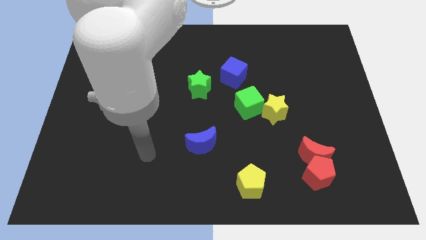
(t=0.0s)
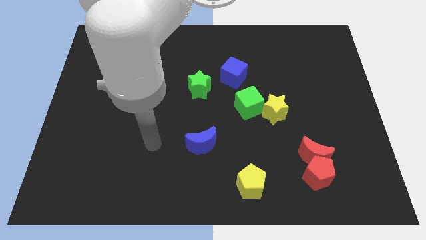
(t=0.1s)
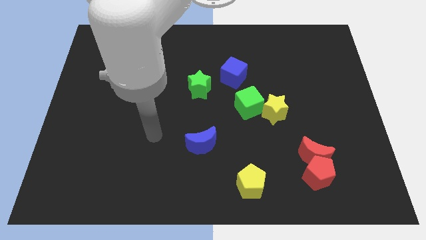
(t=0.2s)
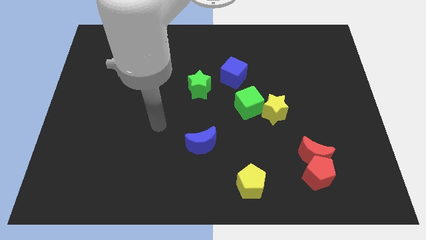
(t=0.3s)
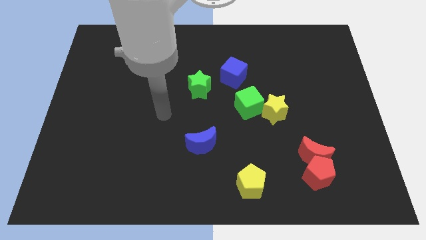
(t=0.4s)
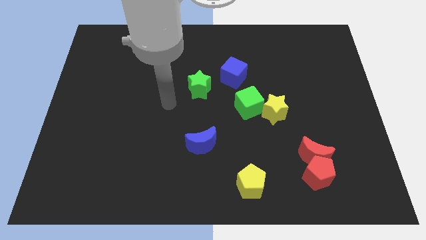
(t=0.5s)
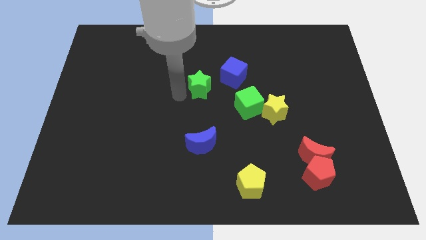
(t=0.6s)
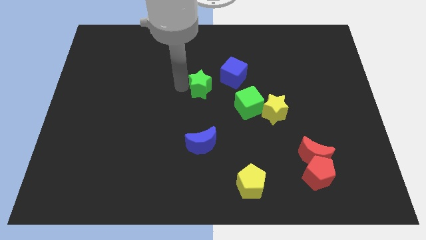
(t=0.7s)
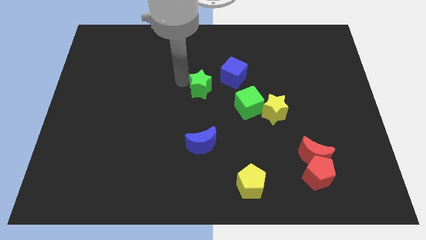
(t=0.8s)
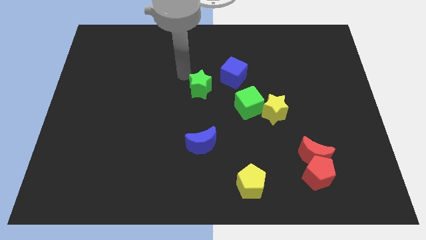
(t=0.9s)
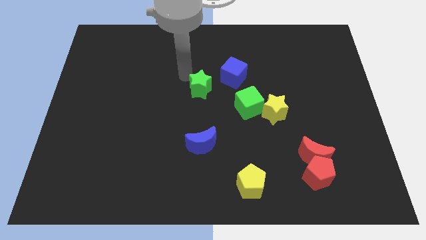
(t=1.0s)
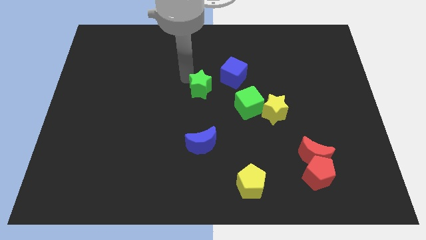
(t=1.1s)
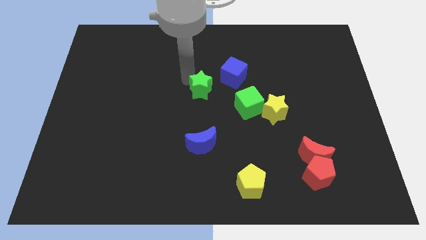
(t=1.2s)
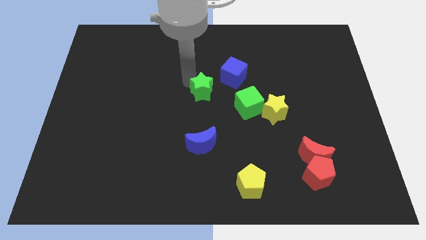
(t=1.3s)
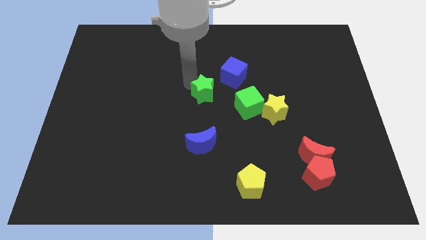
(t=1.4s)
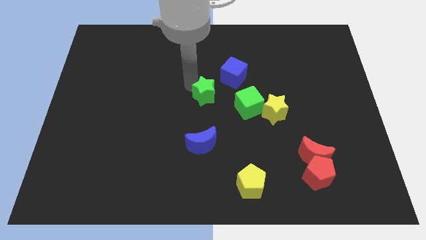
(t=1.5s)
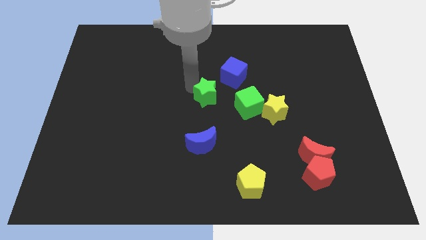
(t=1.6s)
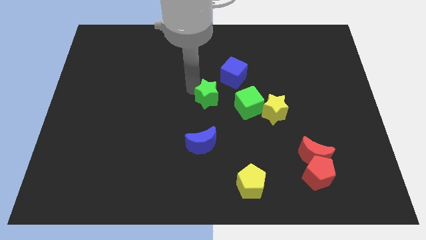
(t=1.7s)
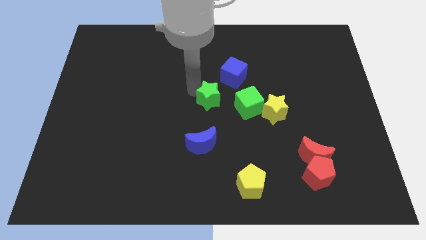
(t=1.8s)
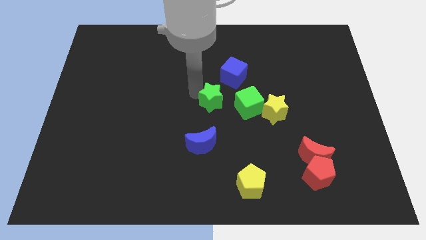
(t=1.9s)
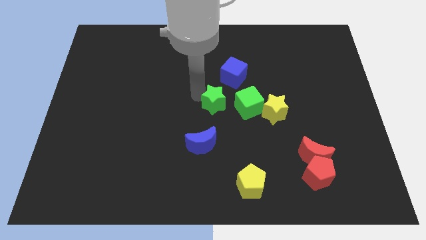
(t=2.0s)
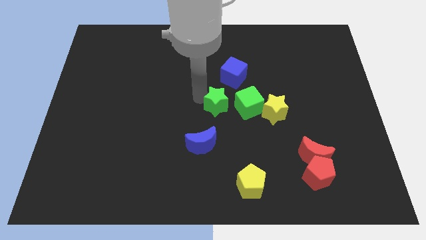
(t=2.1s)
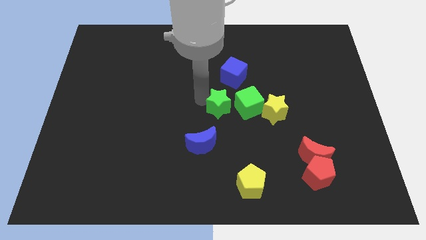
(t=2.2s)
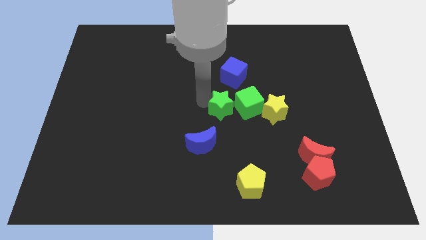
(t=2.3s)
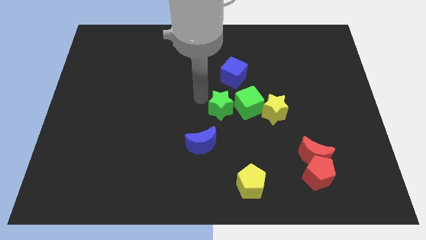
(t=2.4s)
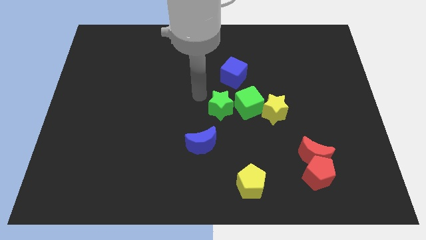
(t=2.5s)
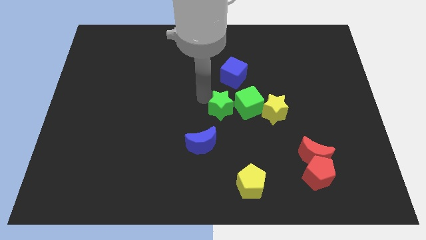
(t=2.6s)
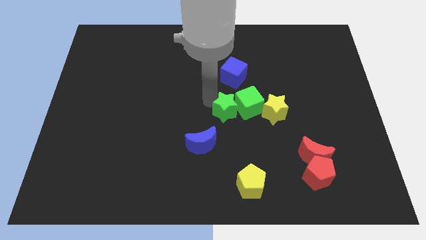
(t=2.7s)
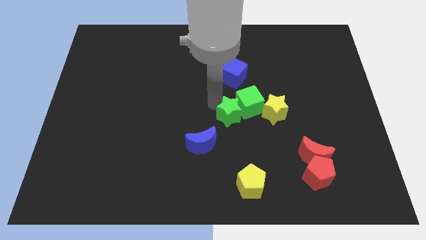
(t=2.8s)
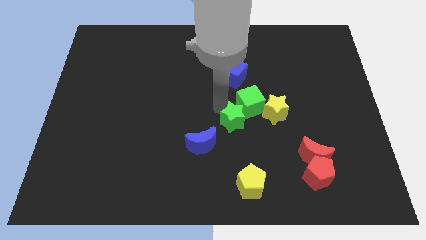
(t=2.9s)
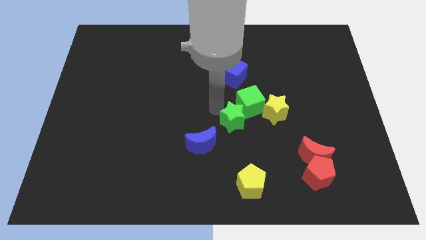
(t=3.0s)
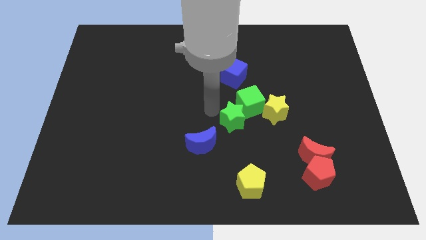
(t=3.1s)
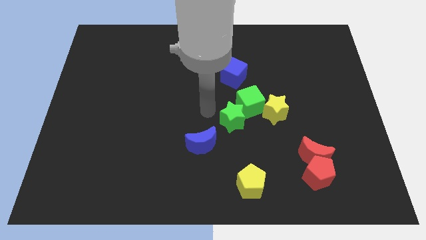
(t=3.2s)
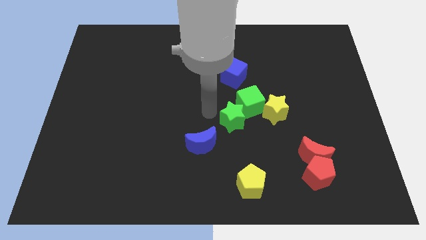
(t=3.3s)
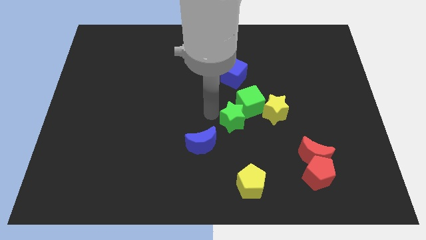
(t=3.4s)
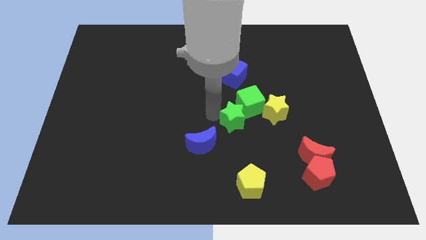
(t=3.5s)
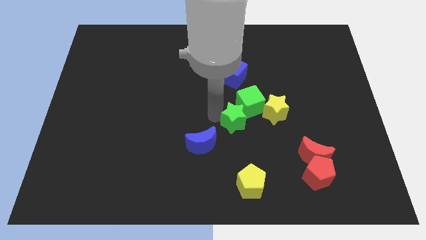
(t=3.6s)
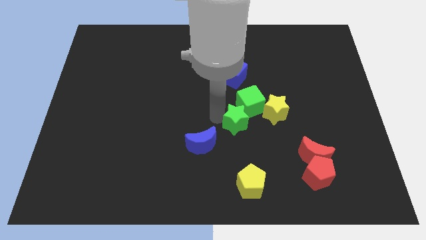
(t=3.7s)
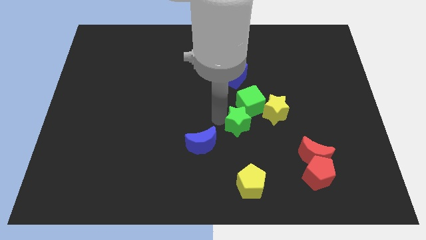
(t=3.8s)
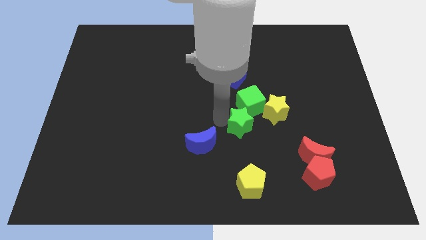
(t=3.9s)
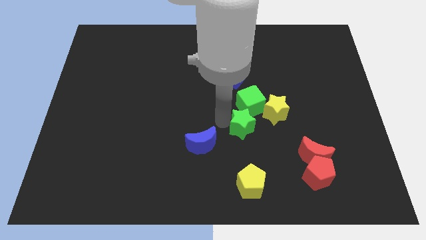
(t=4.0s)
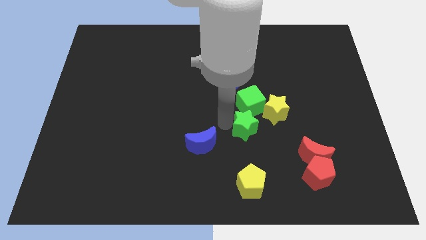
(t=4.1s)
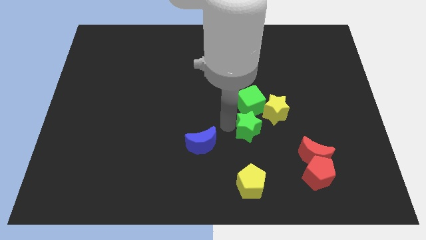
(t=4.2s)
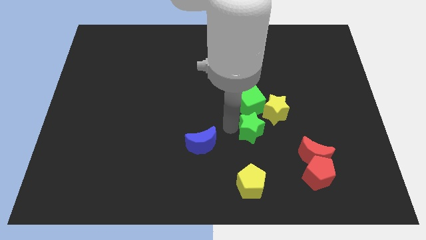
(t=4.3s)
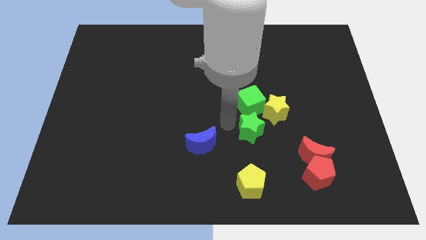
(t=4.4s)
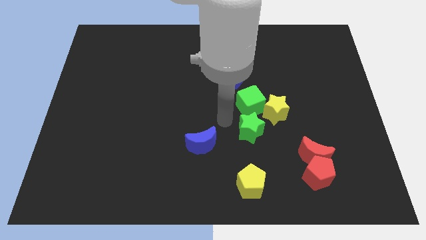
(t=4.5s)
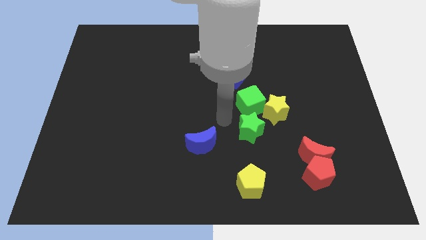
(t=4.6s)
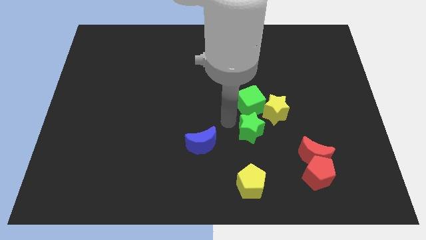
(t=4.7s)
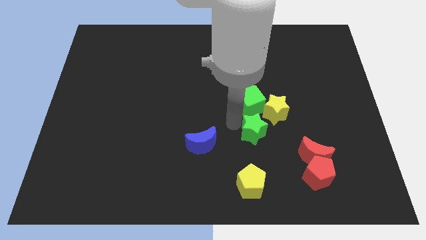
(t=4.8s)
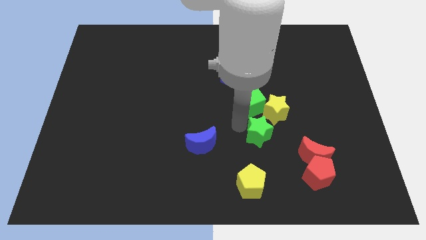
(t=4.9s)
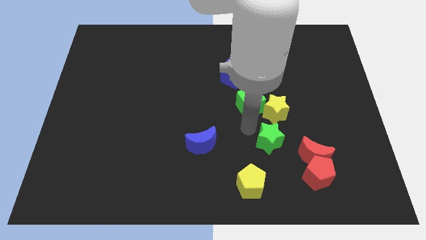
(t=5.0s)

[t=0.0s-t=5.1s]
slide the green star to the top left side of the red pentagon
